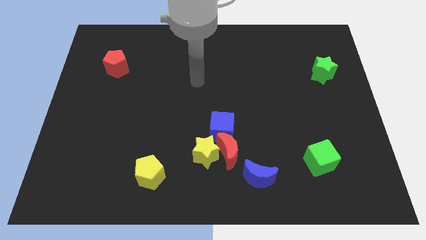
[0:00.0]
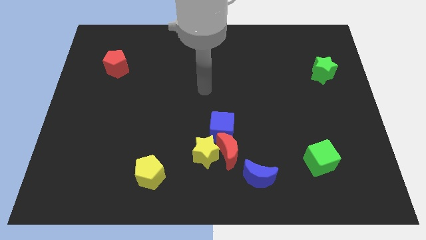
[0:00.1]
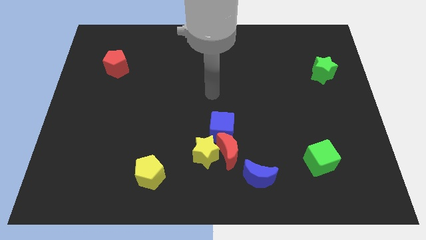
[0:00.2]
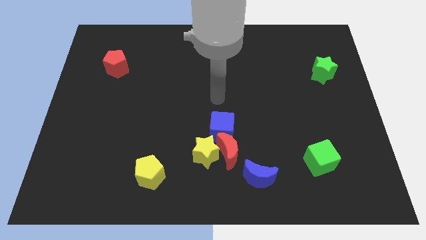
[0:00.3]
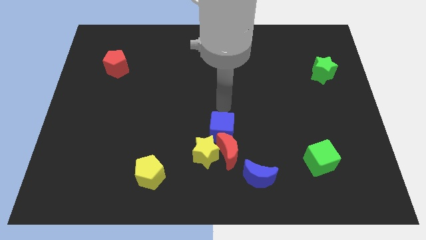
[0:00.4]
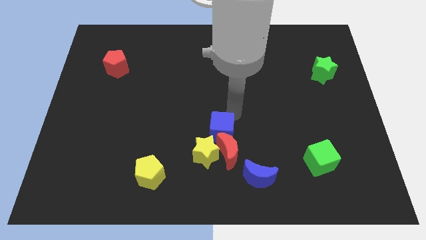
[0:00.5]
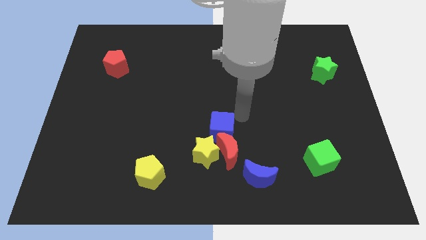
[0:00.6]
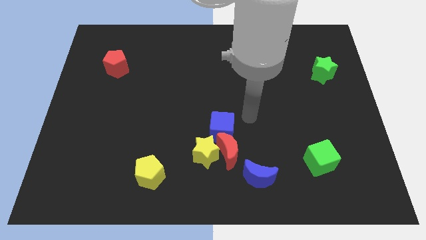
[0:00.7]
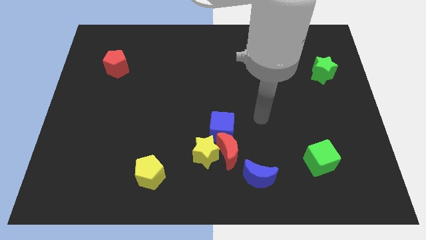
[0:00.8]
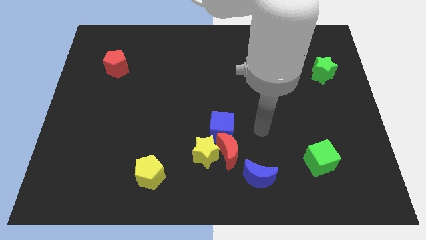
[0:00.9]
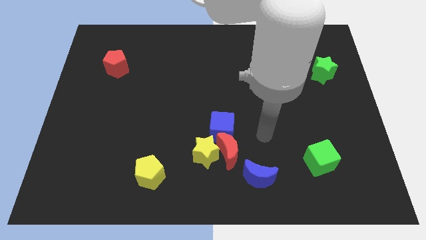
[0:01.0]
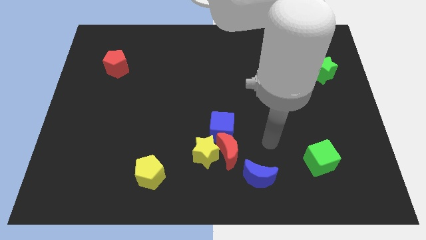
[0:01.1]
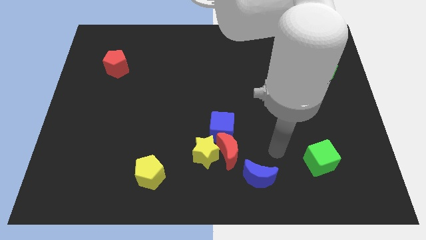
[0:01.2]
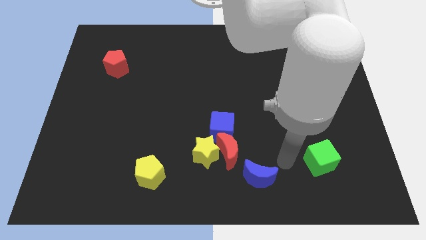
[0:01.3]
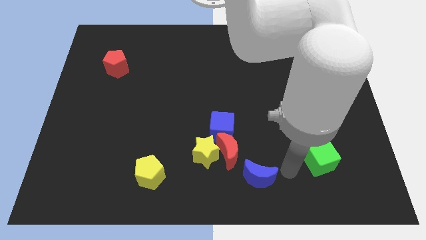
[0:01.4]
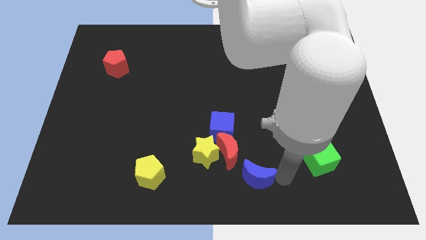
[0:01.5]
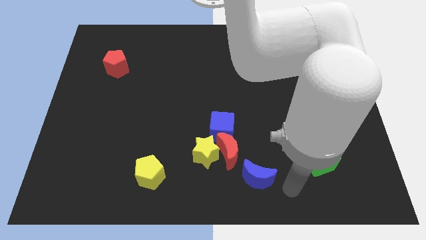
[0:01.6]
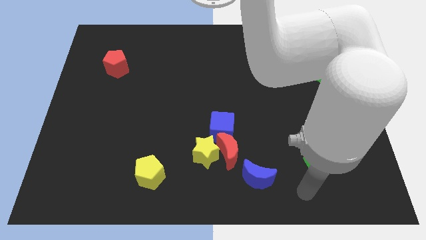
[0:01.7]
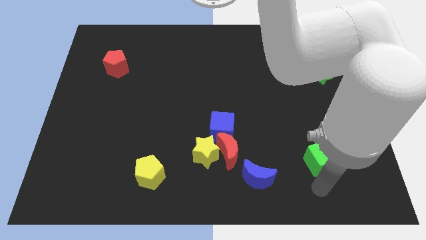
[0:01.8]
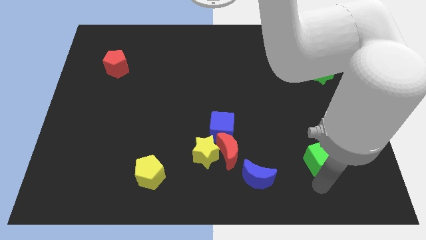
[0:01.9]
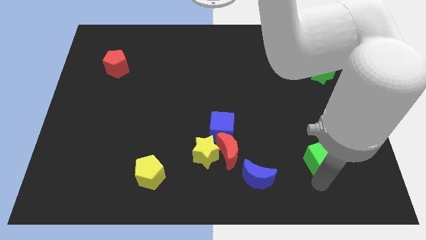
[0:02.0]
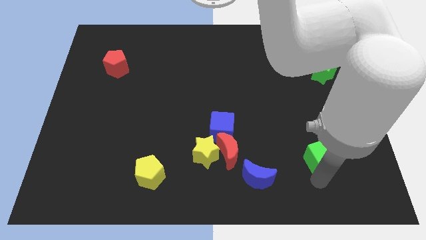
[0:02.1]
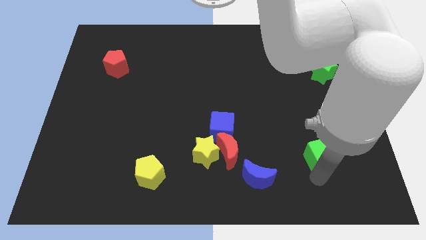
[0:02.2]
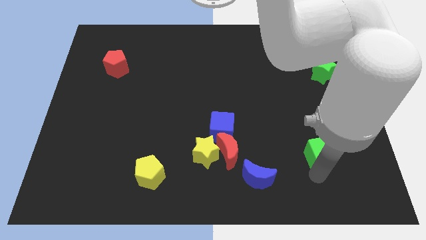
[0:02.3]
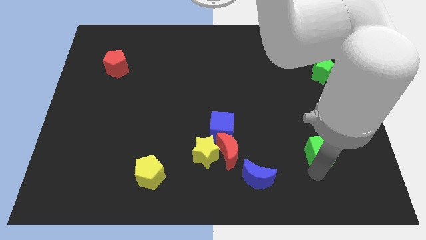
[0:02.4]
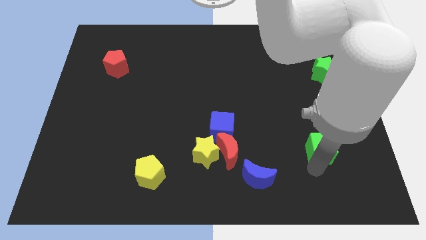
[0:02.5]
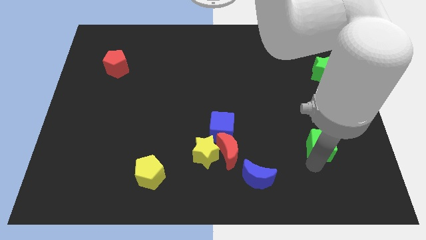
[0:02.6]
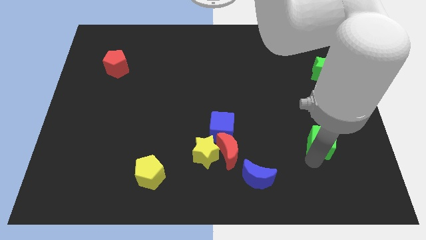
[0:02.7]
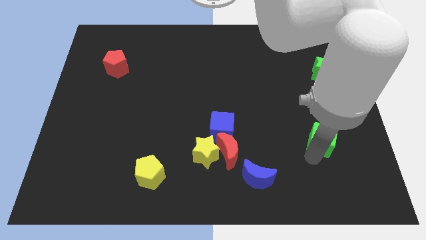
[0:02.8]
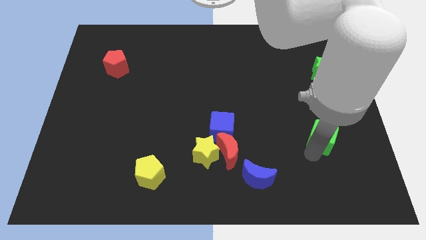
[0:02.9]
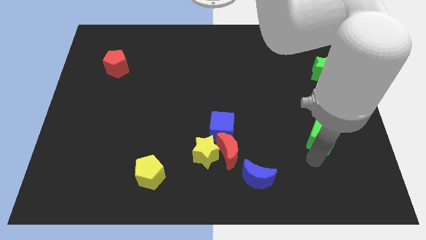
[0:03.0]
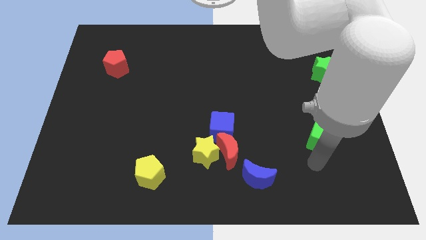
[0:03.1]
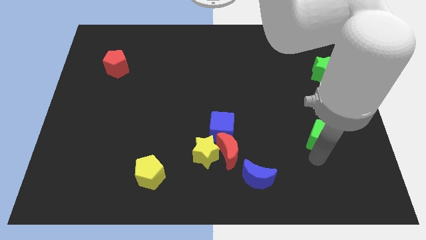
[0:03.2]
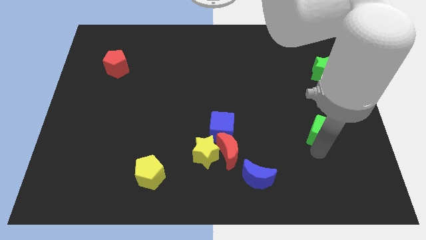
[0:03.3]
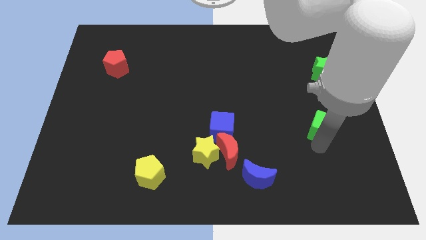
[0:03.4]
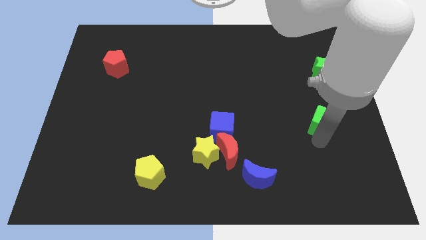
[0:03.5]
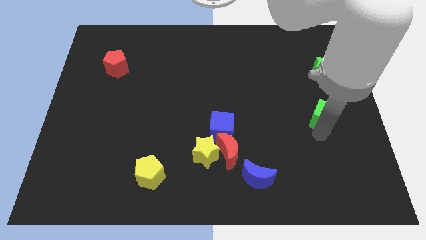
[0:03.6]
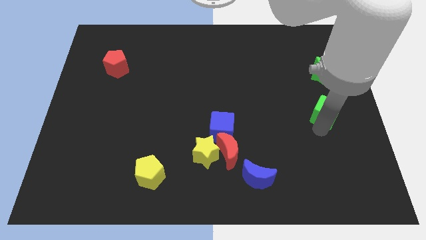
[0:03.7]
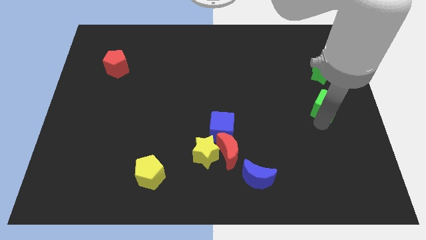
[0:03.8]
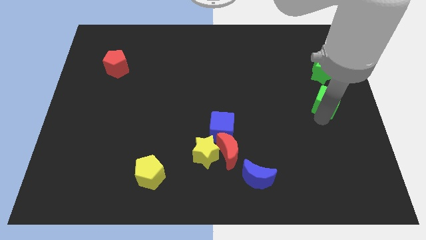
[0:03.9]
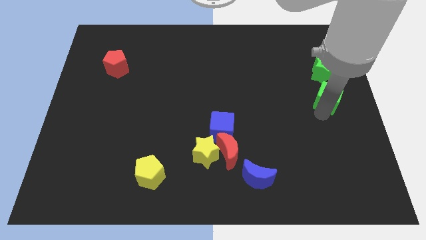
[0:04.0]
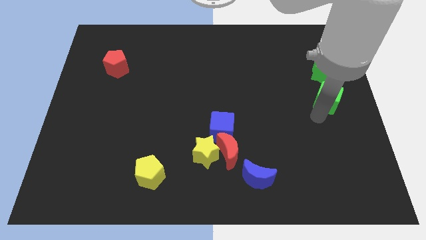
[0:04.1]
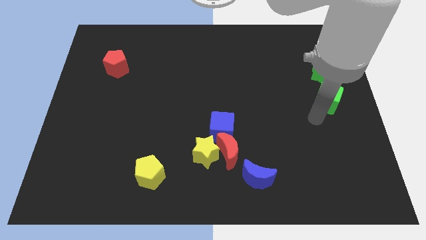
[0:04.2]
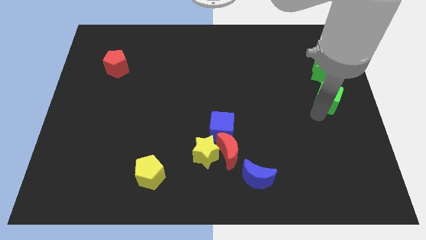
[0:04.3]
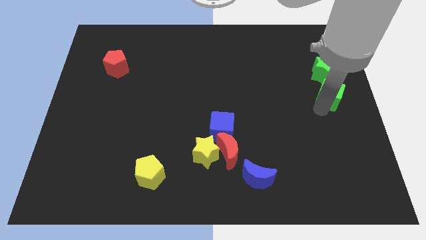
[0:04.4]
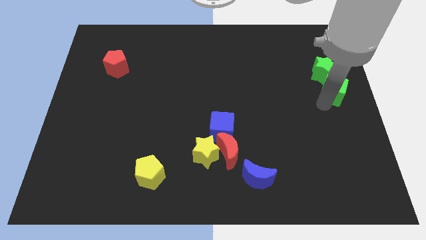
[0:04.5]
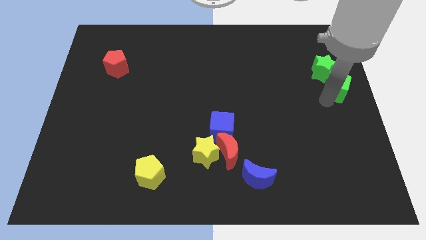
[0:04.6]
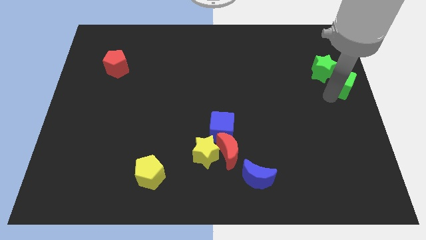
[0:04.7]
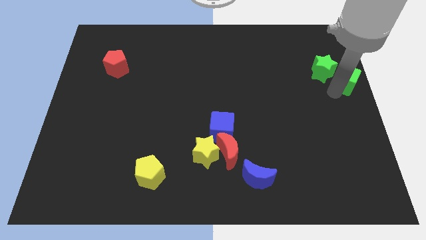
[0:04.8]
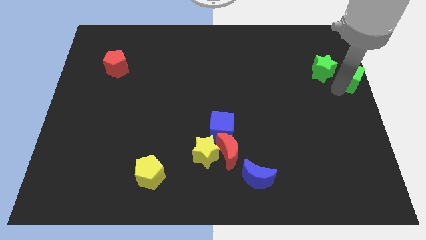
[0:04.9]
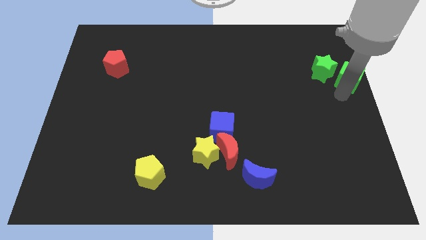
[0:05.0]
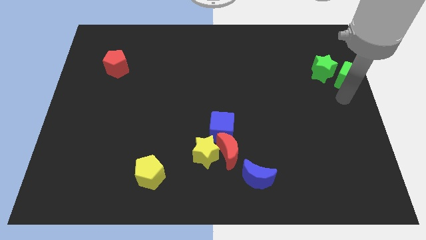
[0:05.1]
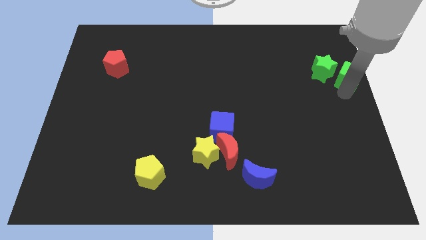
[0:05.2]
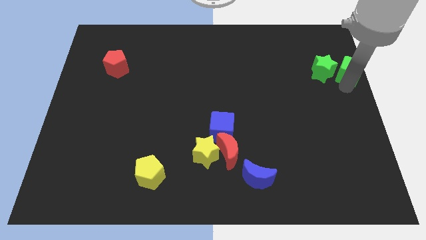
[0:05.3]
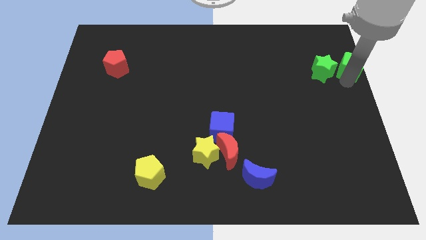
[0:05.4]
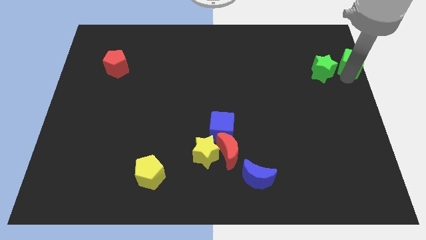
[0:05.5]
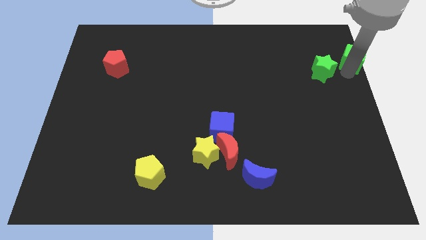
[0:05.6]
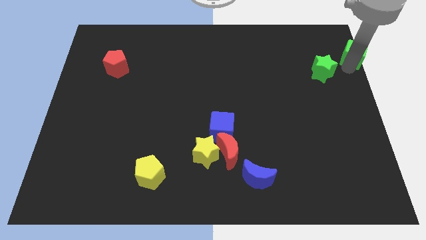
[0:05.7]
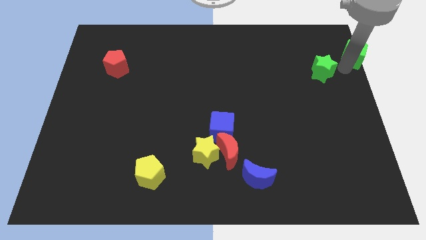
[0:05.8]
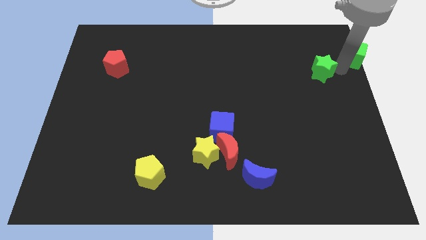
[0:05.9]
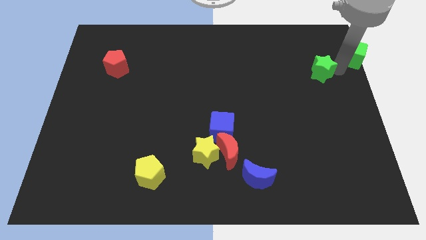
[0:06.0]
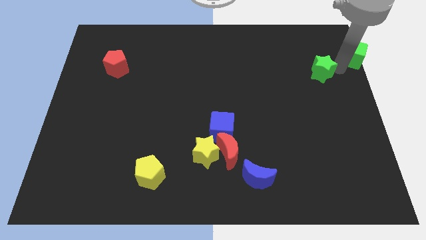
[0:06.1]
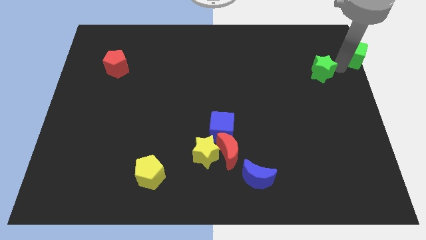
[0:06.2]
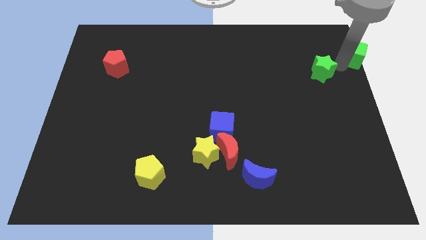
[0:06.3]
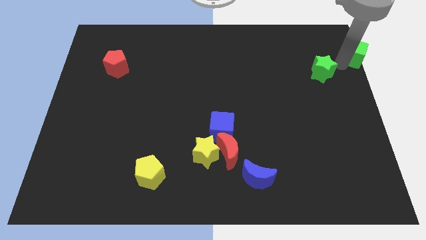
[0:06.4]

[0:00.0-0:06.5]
slide the green cube to the top right of the board

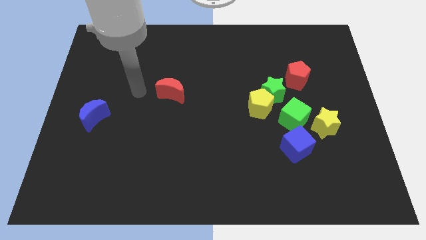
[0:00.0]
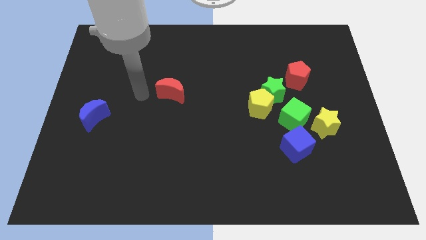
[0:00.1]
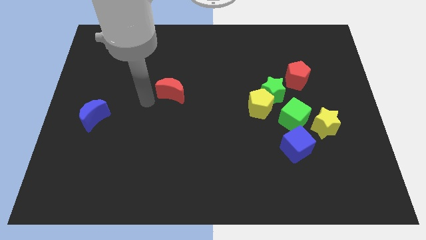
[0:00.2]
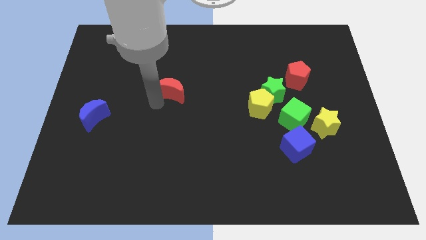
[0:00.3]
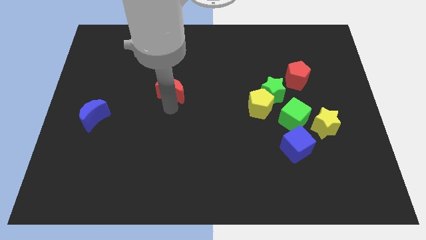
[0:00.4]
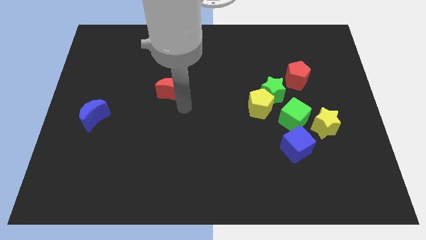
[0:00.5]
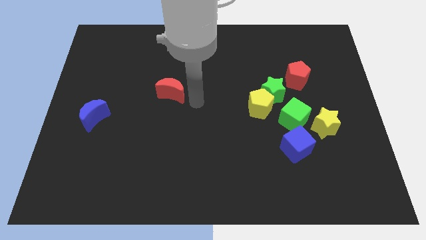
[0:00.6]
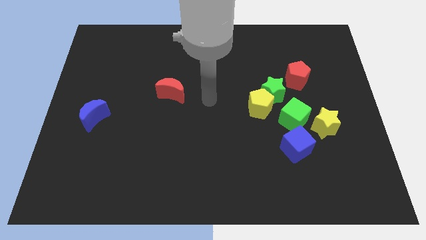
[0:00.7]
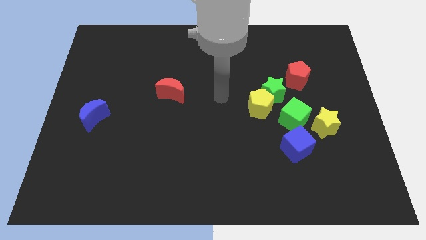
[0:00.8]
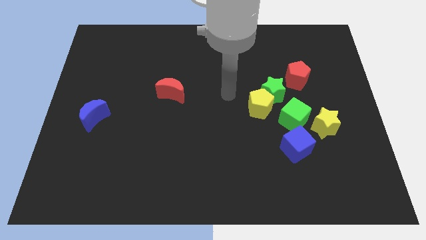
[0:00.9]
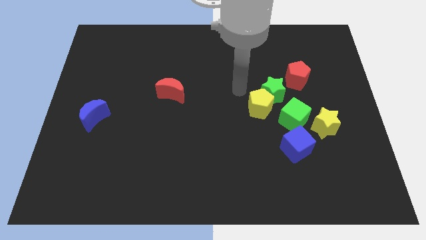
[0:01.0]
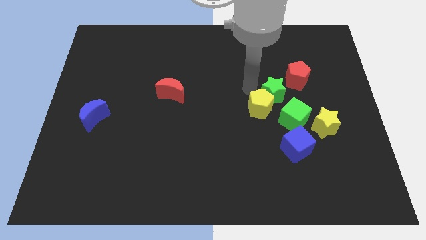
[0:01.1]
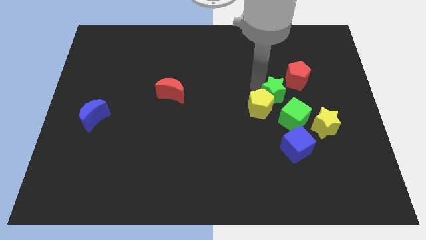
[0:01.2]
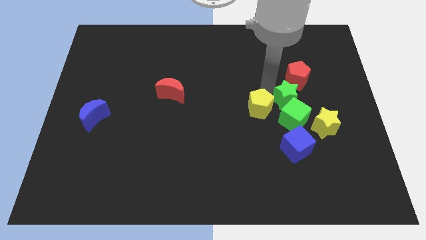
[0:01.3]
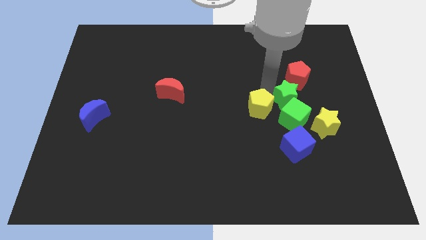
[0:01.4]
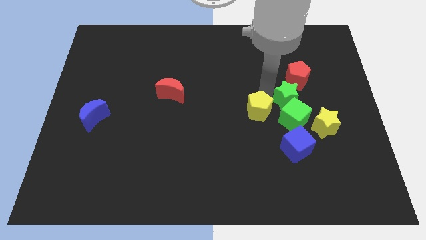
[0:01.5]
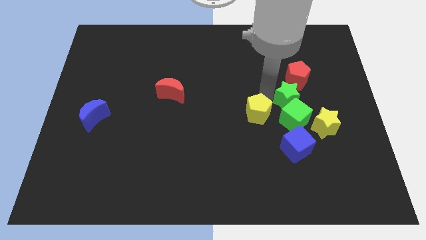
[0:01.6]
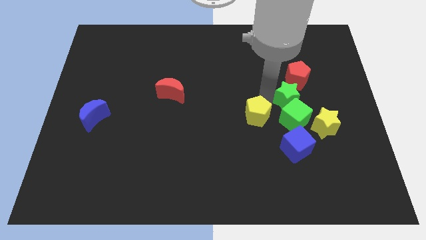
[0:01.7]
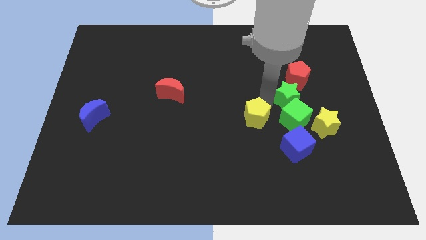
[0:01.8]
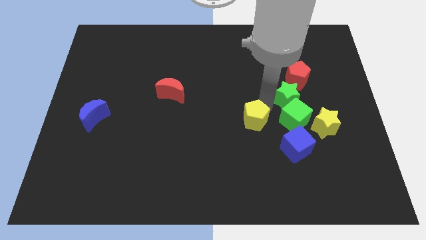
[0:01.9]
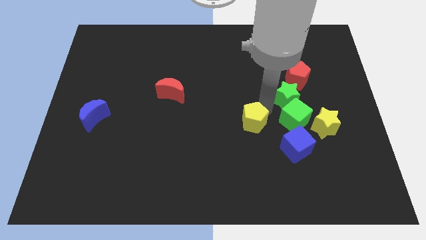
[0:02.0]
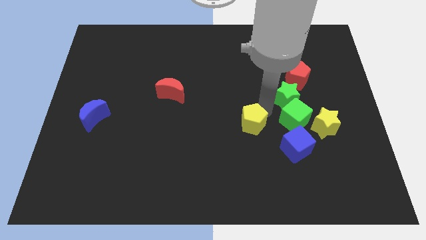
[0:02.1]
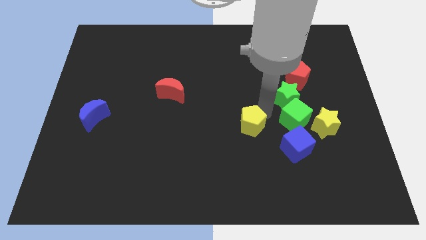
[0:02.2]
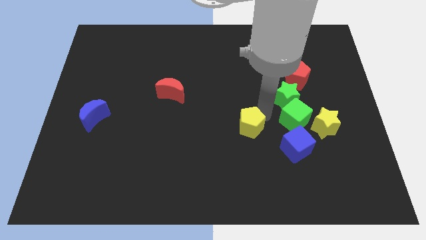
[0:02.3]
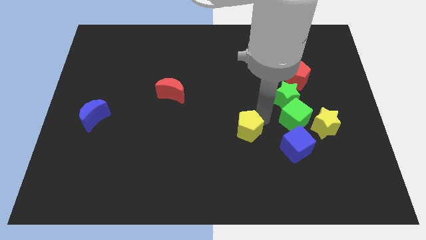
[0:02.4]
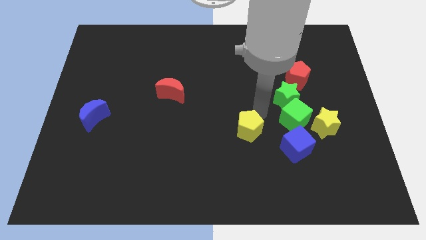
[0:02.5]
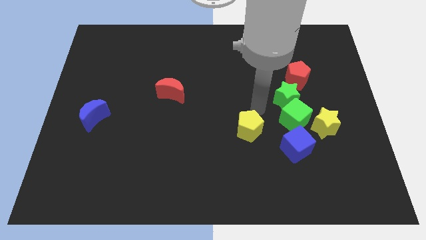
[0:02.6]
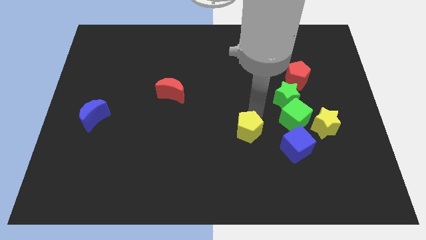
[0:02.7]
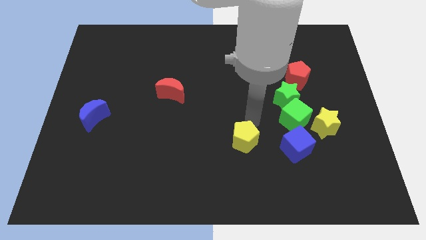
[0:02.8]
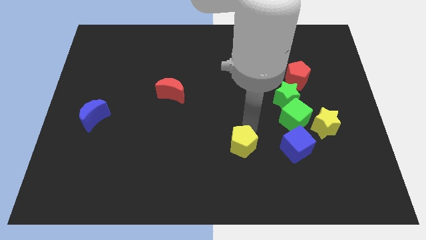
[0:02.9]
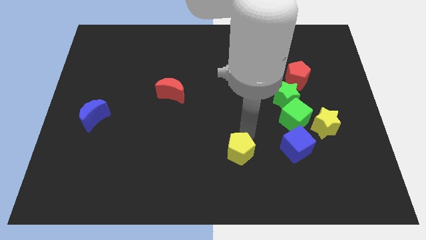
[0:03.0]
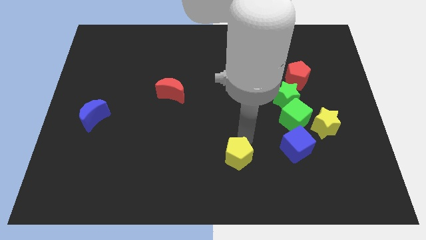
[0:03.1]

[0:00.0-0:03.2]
slide the yellow pentagon to the bottom side
